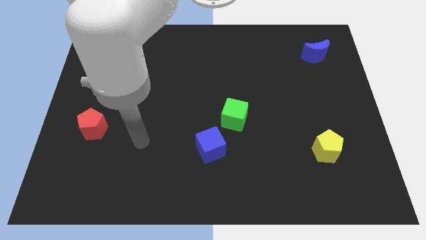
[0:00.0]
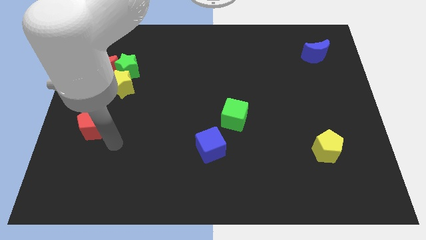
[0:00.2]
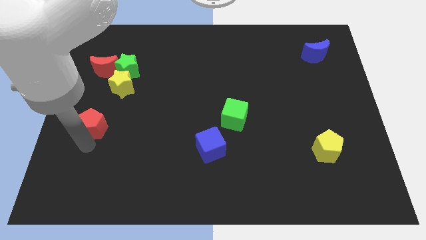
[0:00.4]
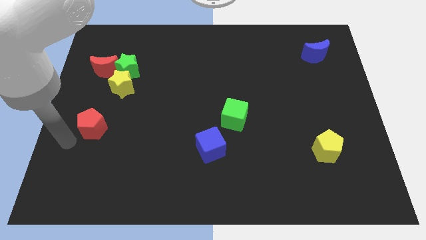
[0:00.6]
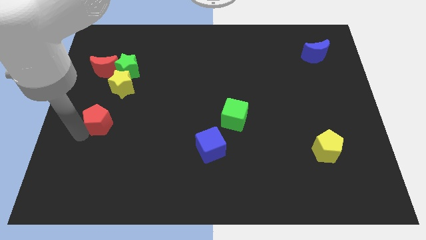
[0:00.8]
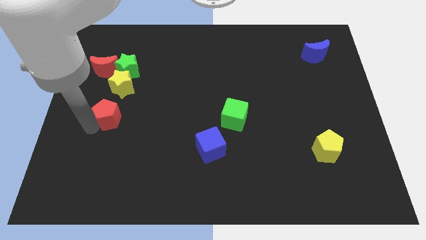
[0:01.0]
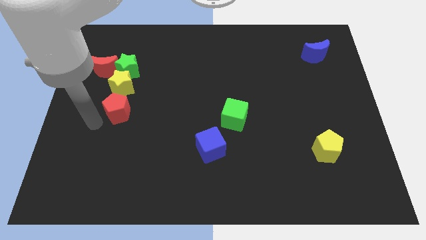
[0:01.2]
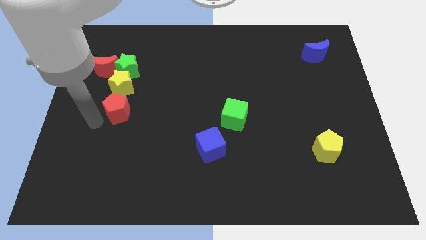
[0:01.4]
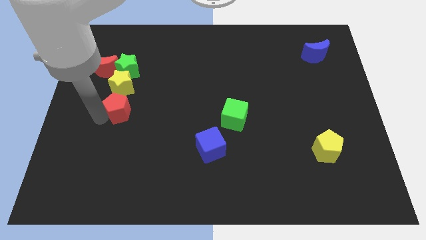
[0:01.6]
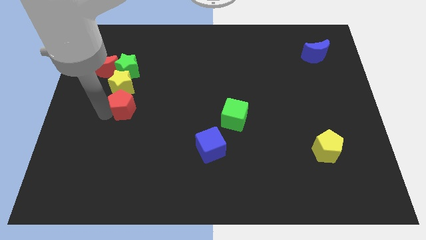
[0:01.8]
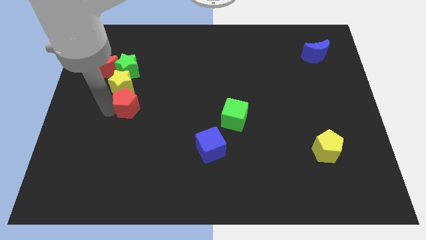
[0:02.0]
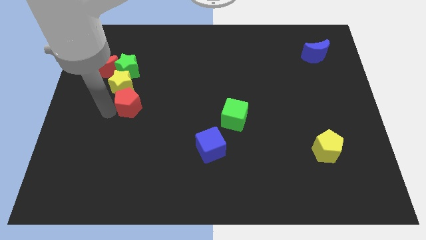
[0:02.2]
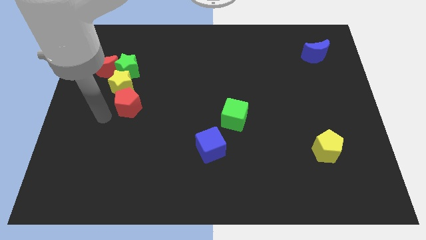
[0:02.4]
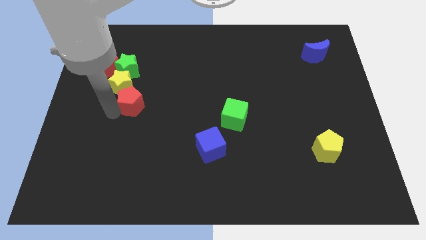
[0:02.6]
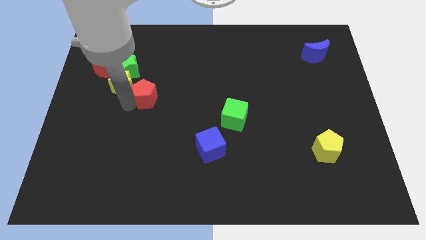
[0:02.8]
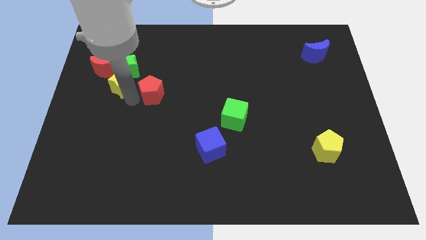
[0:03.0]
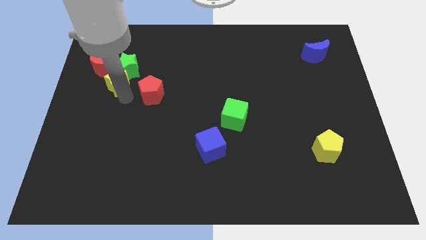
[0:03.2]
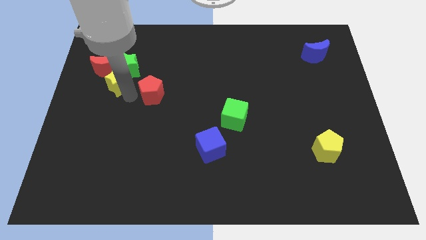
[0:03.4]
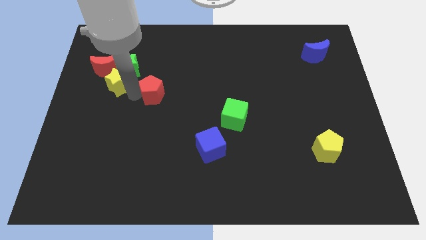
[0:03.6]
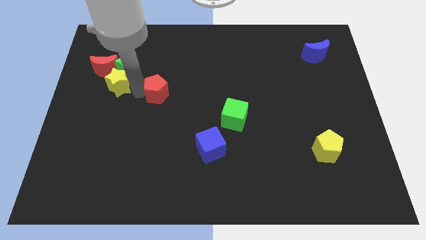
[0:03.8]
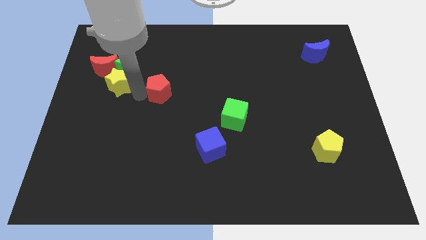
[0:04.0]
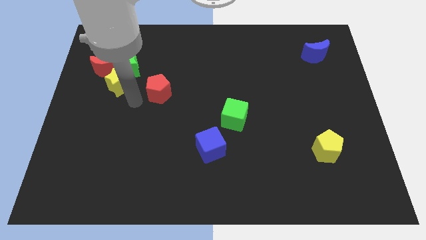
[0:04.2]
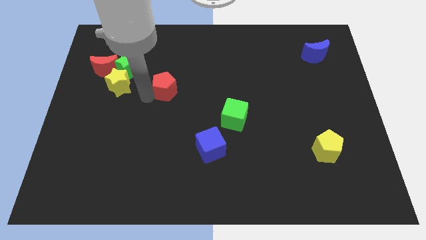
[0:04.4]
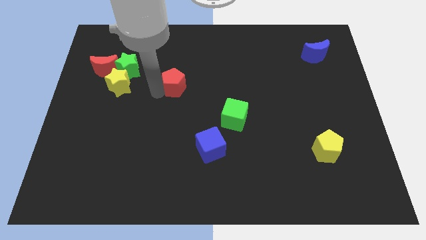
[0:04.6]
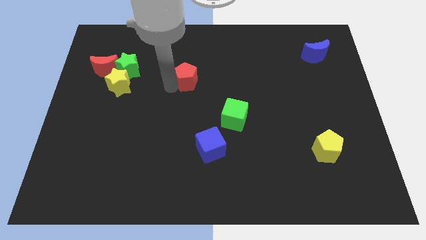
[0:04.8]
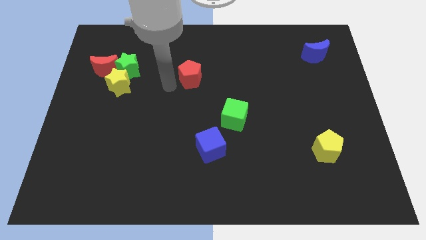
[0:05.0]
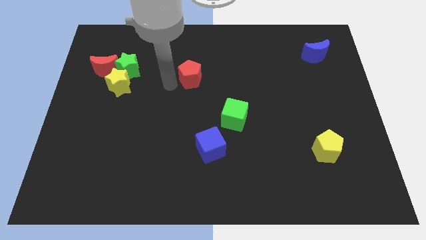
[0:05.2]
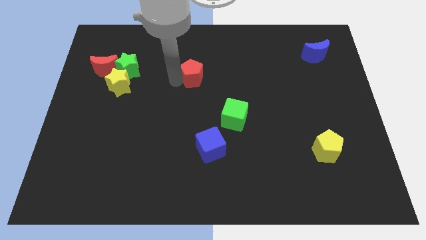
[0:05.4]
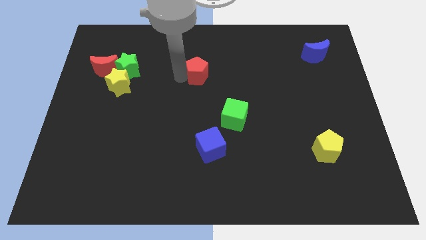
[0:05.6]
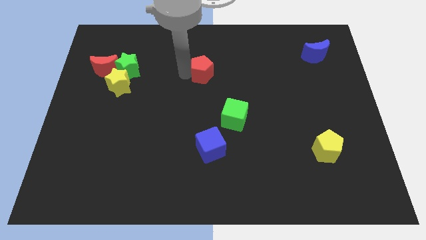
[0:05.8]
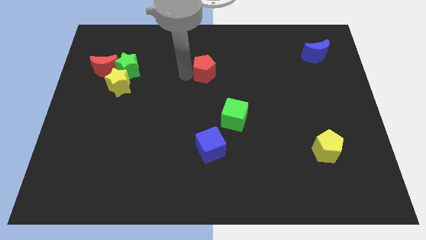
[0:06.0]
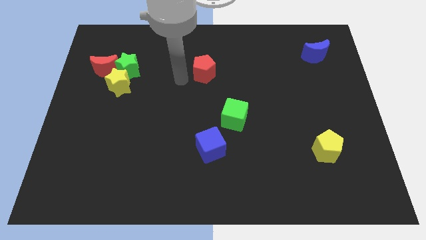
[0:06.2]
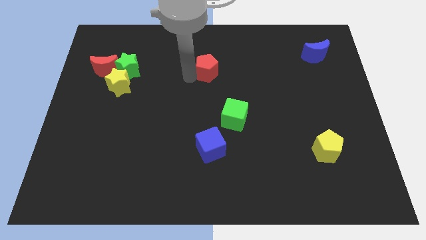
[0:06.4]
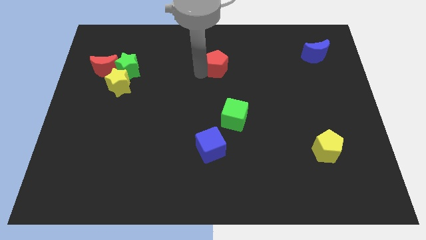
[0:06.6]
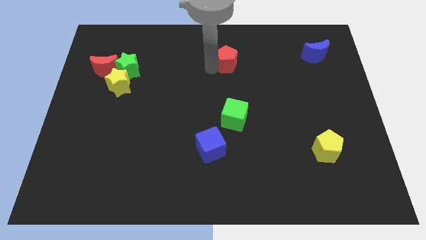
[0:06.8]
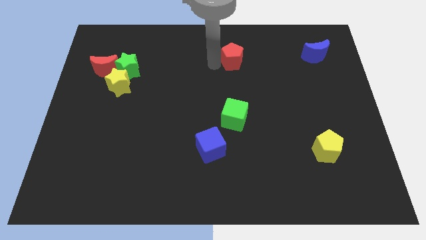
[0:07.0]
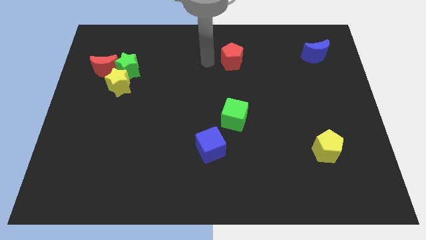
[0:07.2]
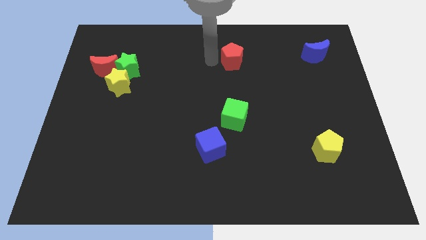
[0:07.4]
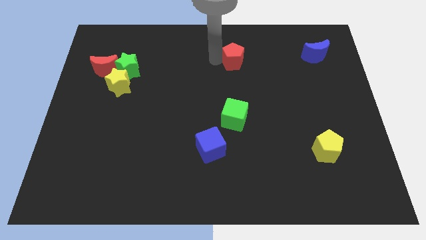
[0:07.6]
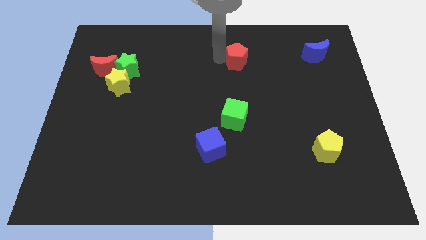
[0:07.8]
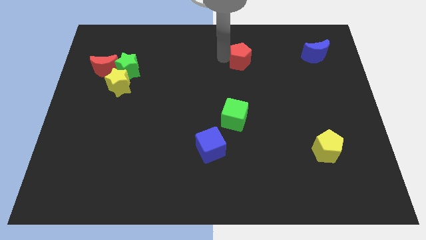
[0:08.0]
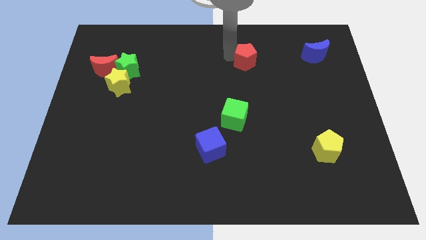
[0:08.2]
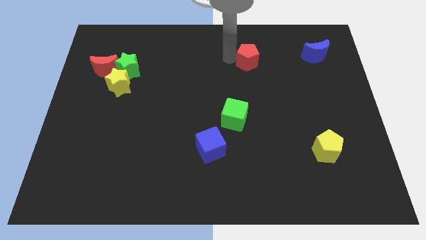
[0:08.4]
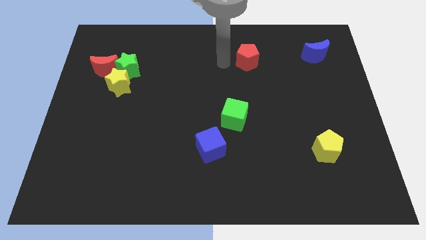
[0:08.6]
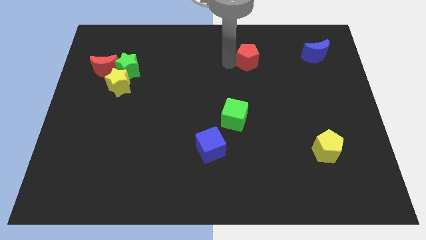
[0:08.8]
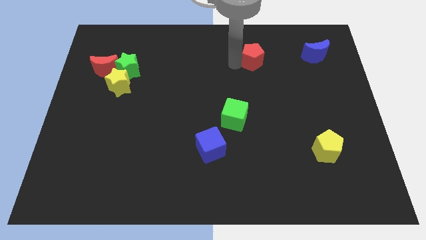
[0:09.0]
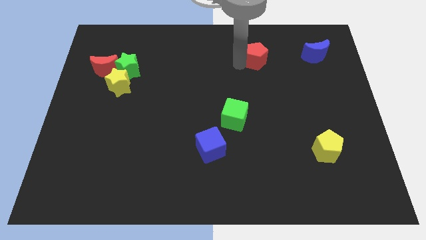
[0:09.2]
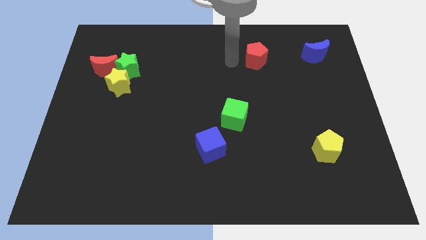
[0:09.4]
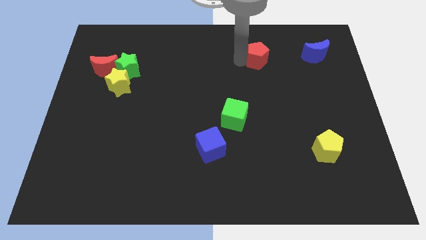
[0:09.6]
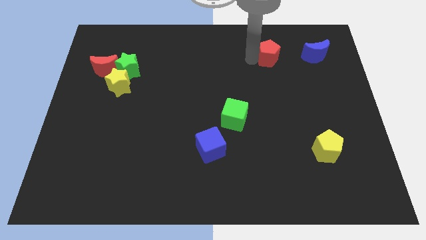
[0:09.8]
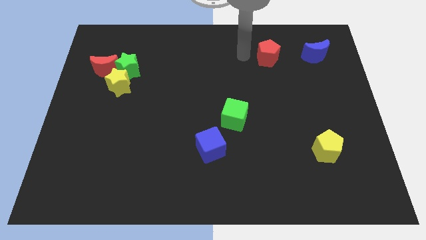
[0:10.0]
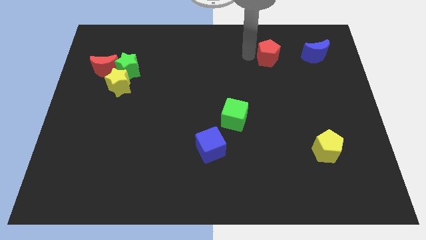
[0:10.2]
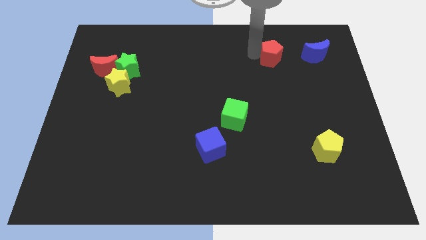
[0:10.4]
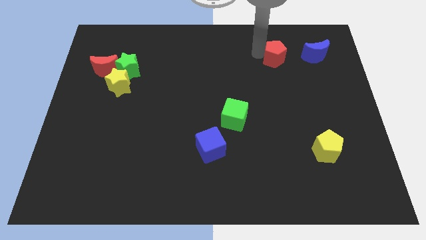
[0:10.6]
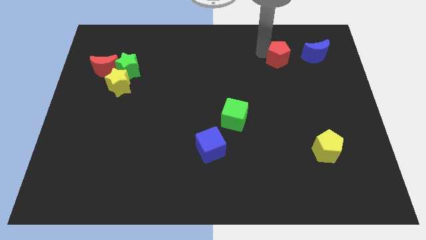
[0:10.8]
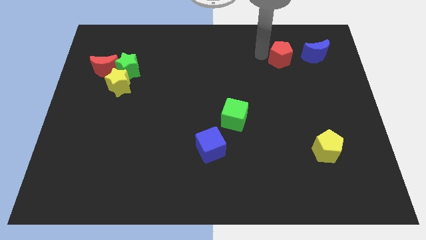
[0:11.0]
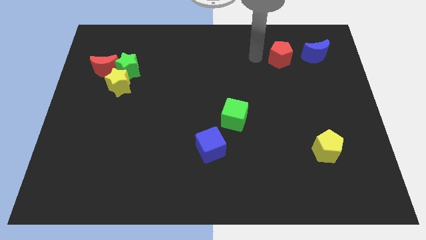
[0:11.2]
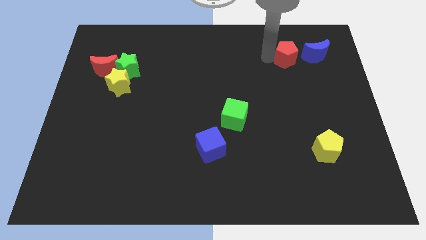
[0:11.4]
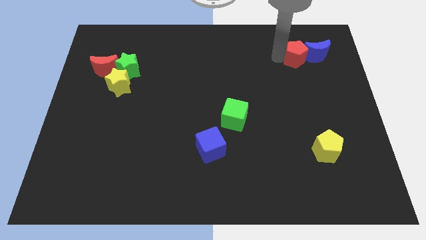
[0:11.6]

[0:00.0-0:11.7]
push the red pentagon next to the blue moon
